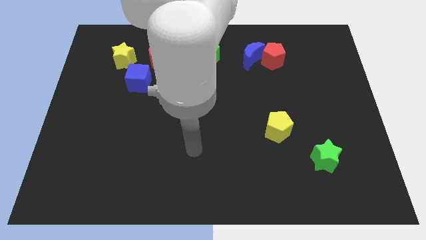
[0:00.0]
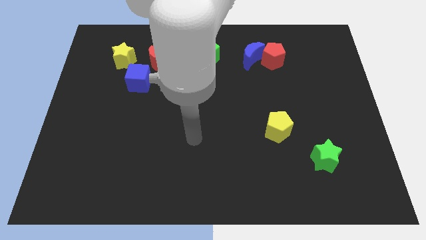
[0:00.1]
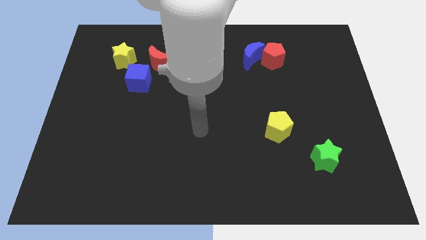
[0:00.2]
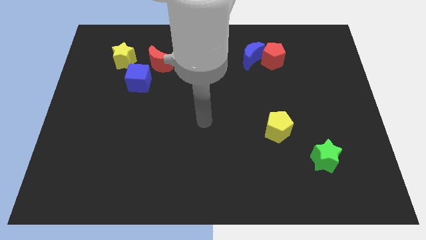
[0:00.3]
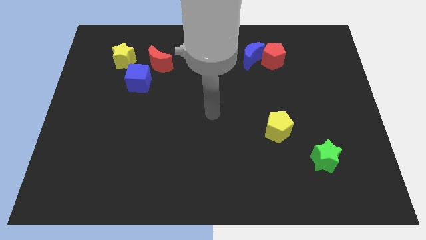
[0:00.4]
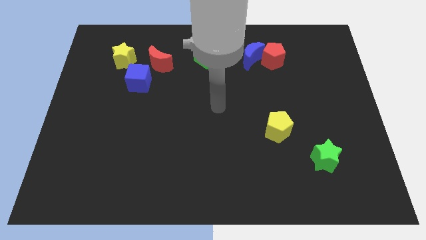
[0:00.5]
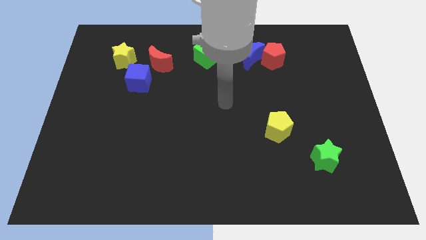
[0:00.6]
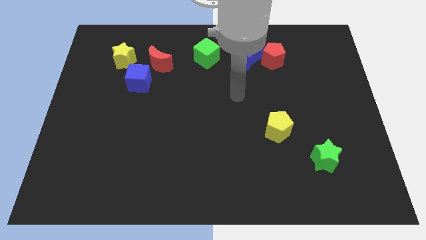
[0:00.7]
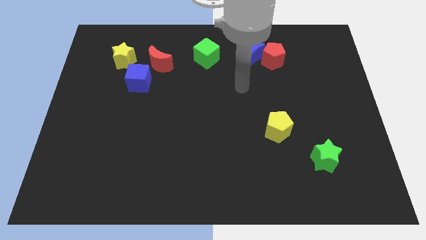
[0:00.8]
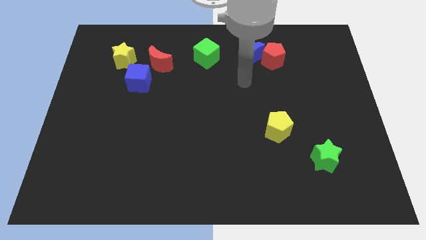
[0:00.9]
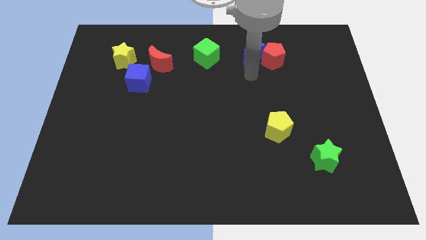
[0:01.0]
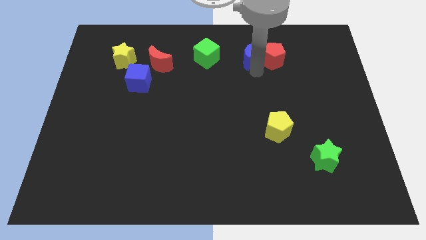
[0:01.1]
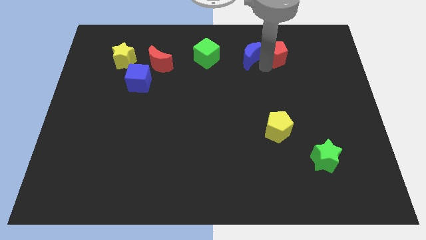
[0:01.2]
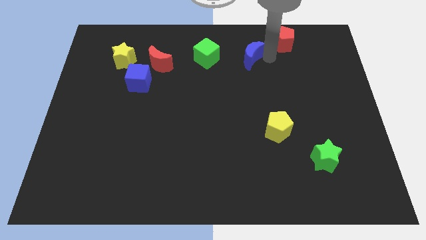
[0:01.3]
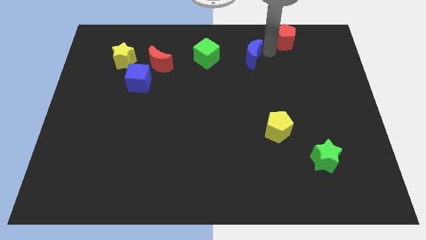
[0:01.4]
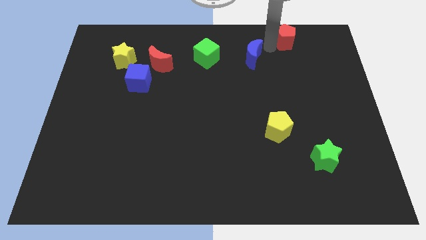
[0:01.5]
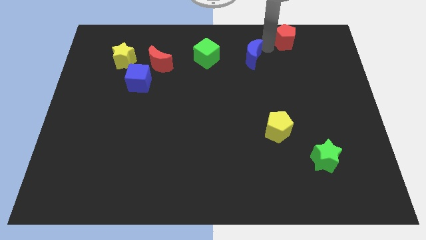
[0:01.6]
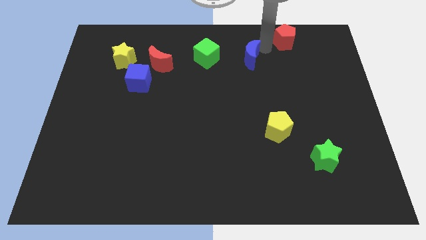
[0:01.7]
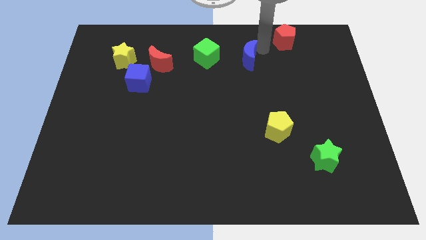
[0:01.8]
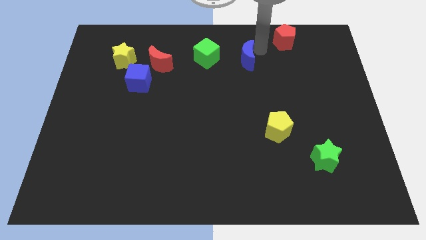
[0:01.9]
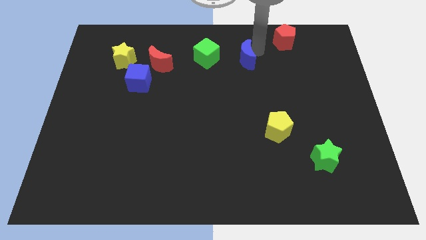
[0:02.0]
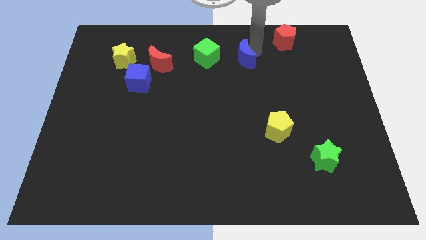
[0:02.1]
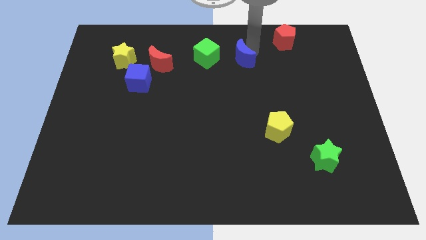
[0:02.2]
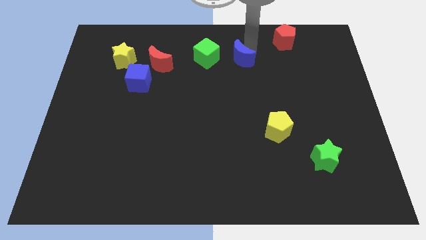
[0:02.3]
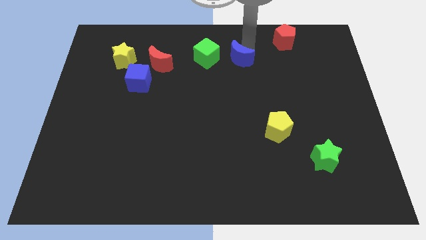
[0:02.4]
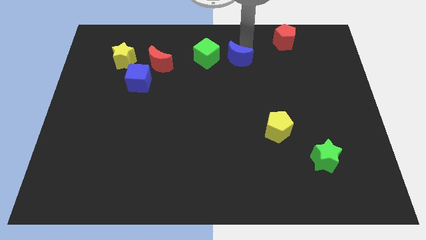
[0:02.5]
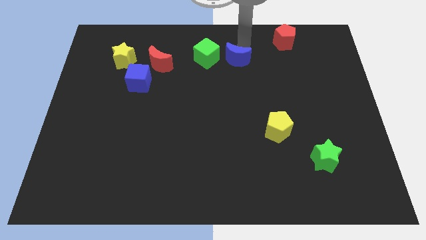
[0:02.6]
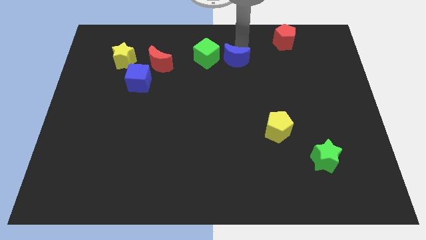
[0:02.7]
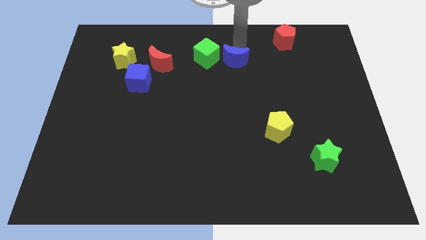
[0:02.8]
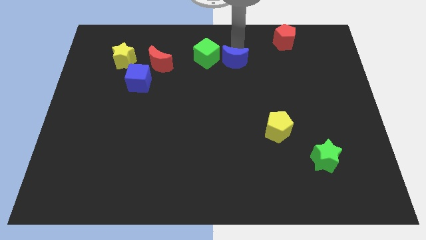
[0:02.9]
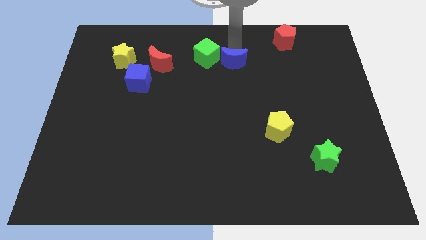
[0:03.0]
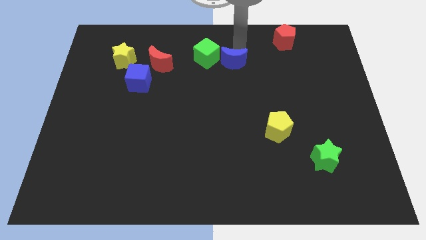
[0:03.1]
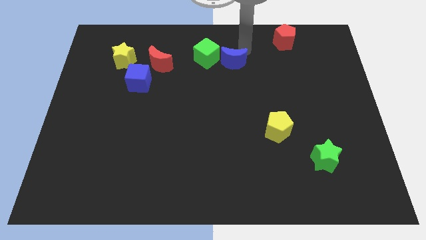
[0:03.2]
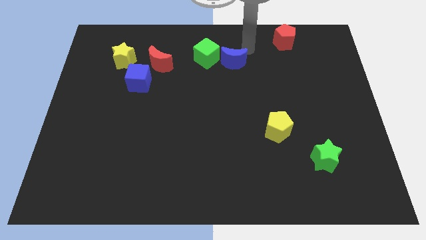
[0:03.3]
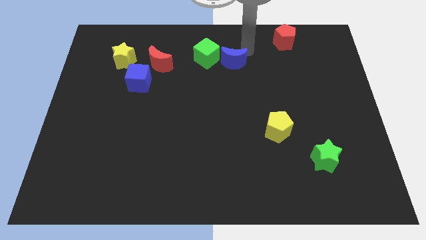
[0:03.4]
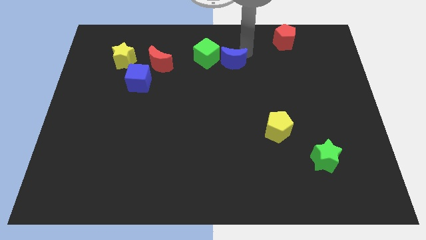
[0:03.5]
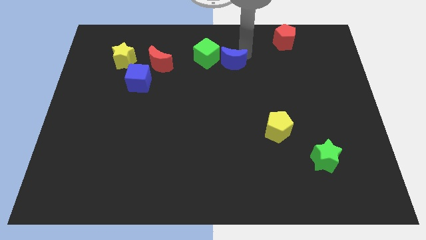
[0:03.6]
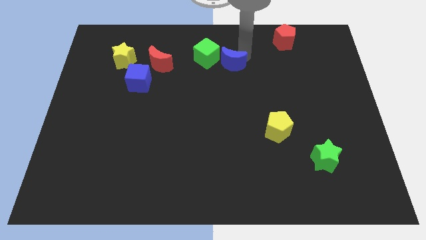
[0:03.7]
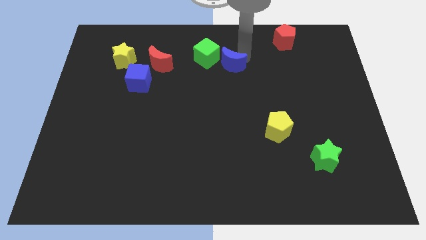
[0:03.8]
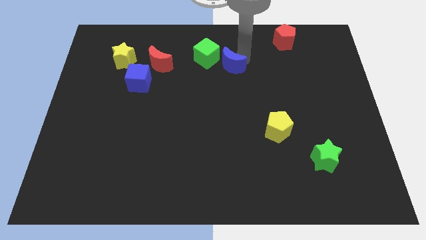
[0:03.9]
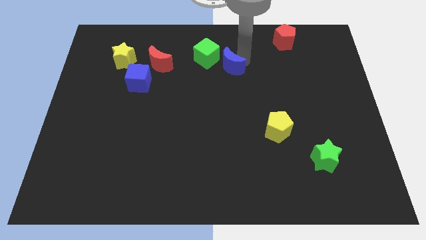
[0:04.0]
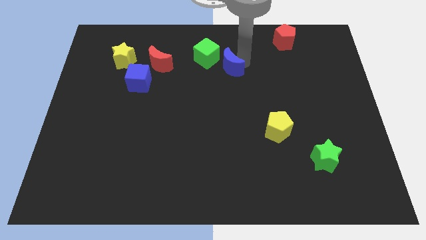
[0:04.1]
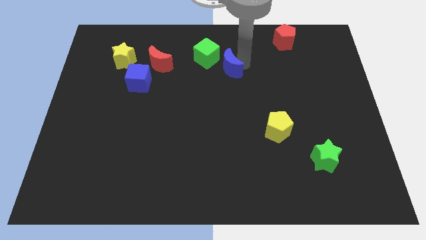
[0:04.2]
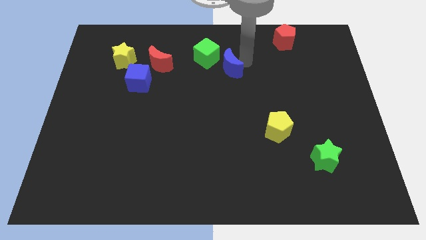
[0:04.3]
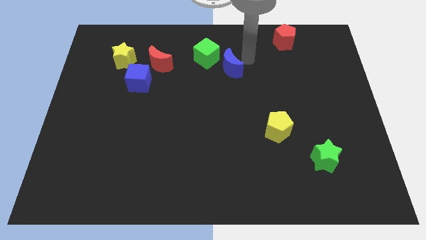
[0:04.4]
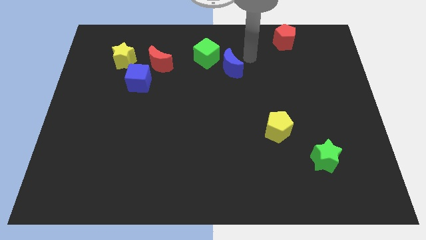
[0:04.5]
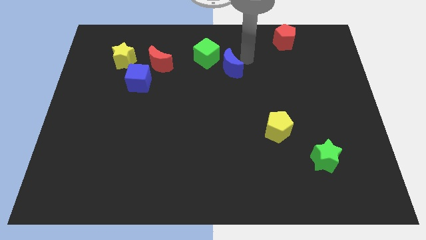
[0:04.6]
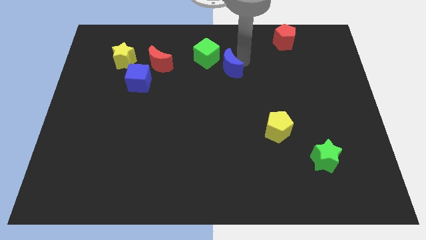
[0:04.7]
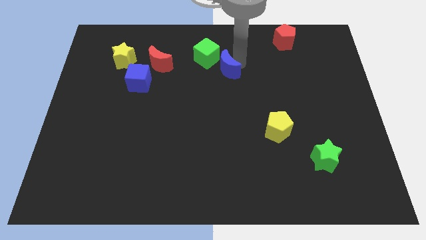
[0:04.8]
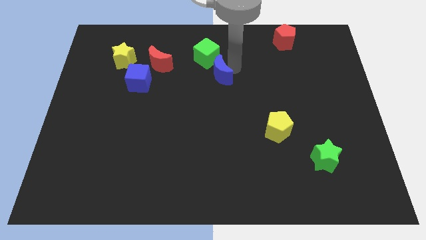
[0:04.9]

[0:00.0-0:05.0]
slide the blue moon left a bit

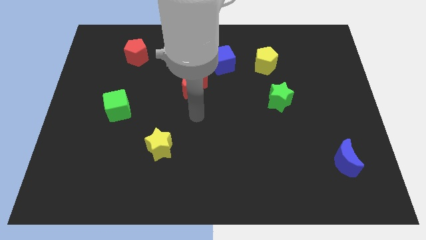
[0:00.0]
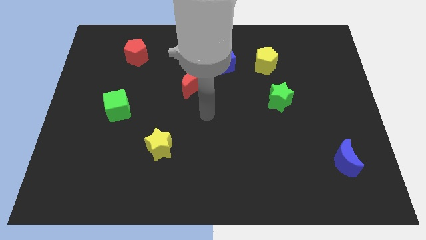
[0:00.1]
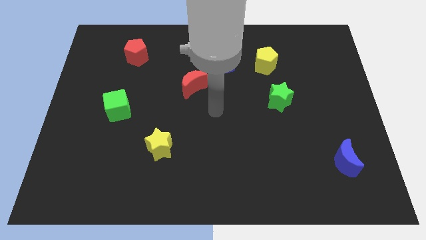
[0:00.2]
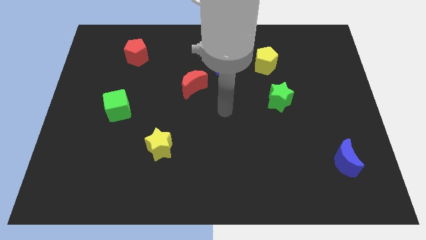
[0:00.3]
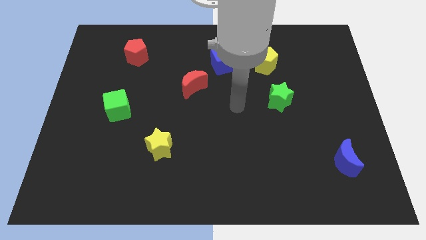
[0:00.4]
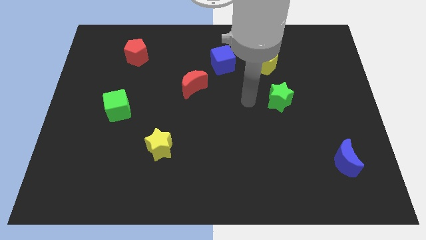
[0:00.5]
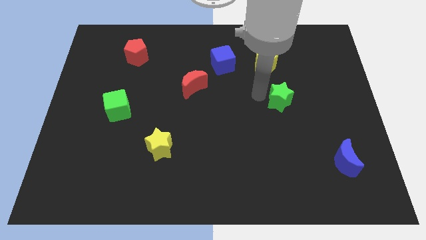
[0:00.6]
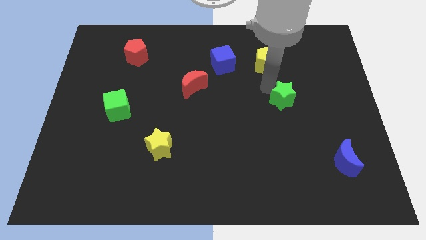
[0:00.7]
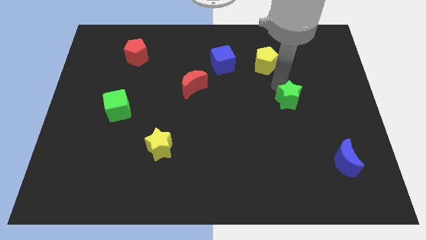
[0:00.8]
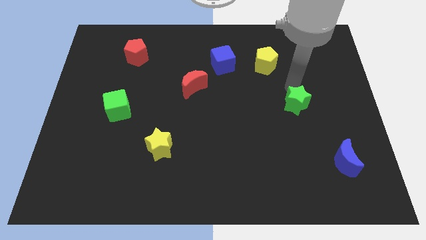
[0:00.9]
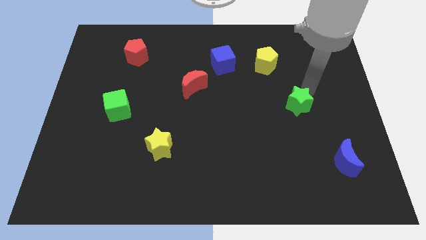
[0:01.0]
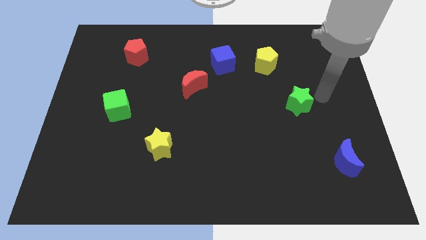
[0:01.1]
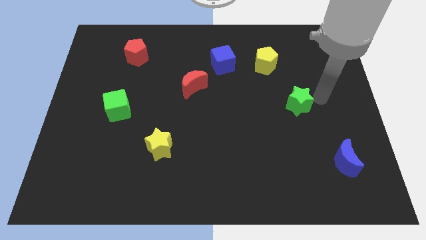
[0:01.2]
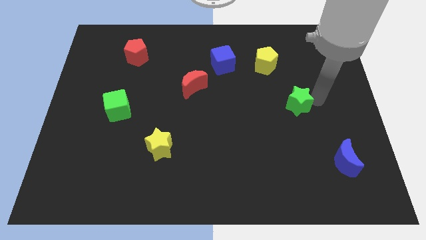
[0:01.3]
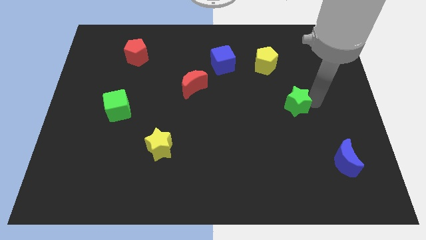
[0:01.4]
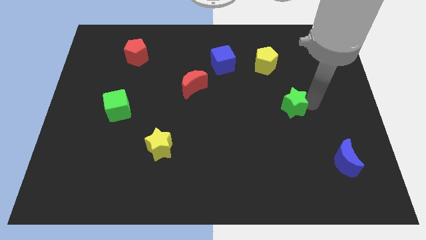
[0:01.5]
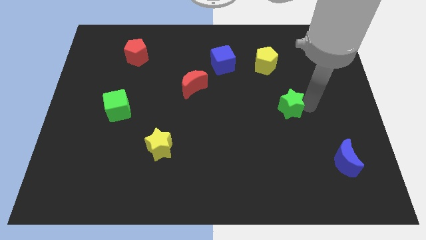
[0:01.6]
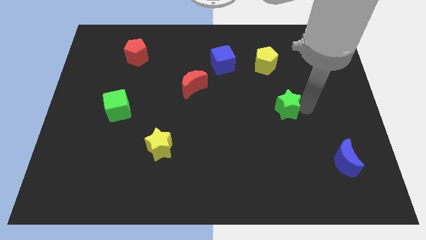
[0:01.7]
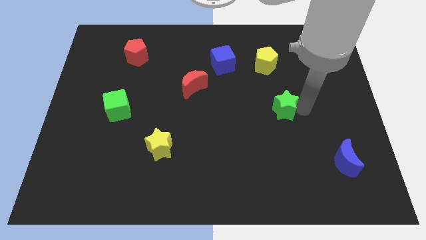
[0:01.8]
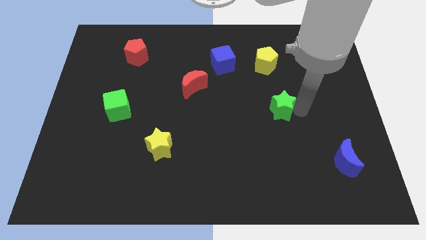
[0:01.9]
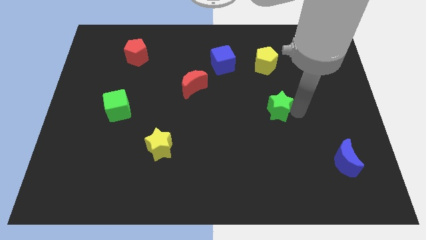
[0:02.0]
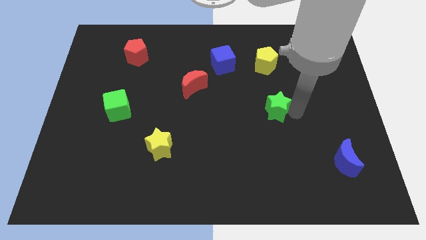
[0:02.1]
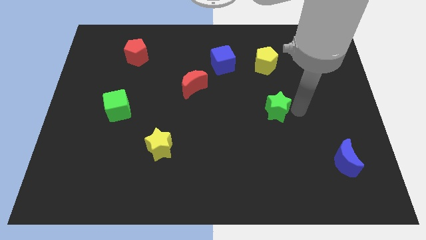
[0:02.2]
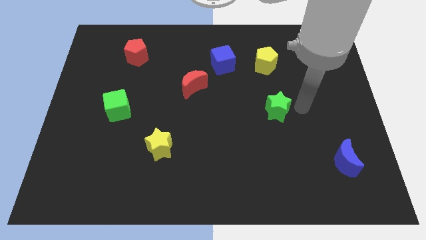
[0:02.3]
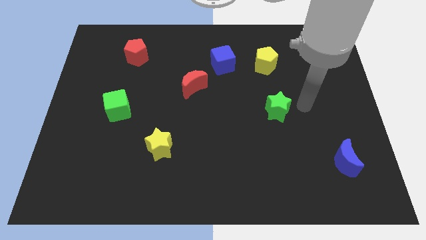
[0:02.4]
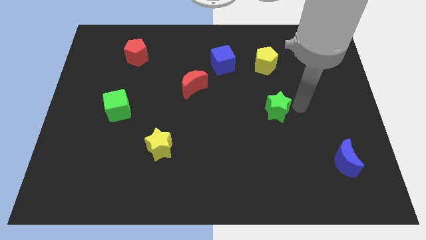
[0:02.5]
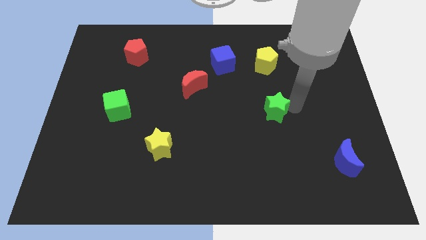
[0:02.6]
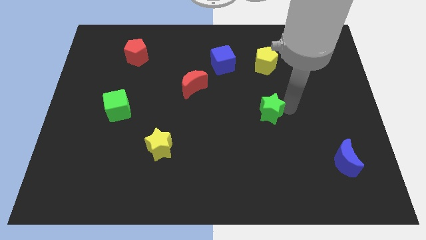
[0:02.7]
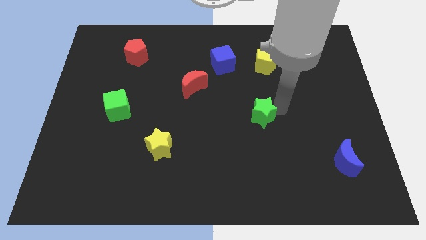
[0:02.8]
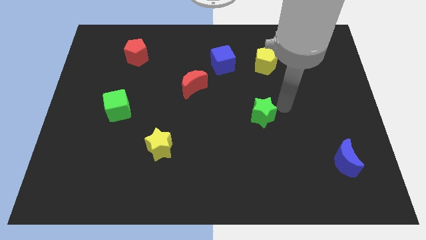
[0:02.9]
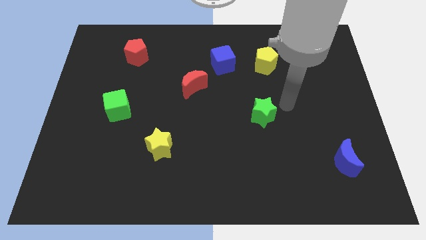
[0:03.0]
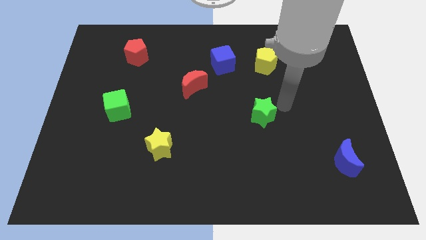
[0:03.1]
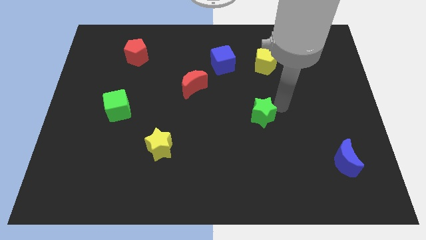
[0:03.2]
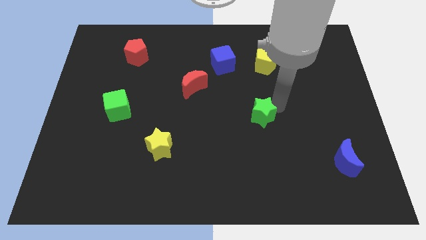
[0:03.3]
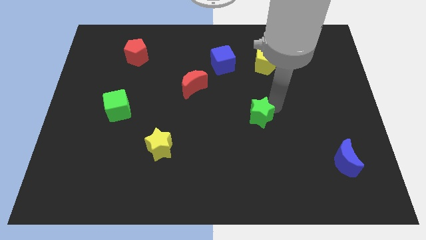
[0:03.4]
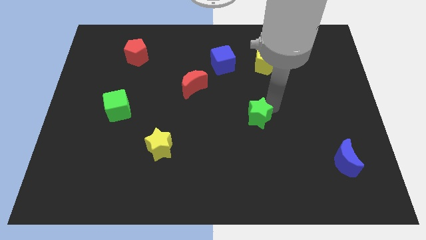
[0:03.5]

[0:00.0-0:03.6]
push the green star downwards and left slightly
